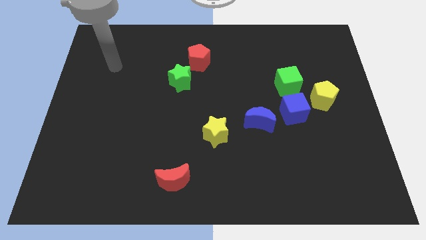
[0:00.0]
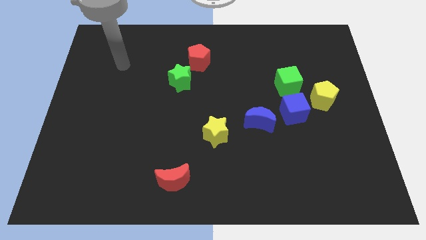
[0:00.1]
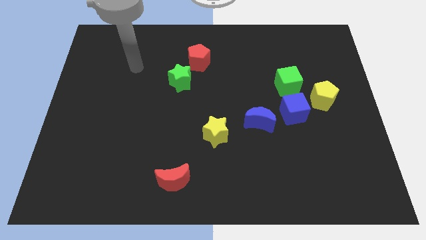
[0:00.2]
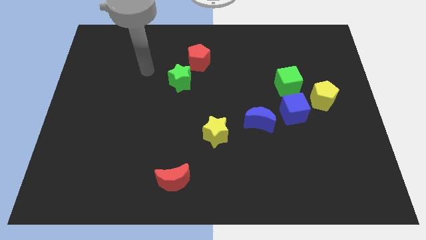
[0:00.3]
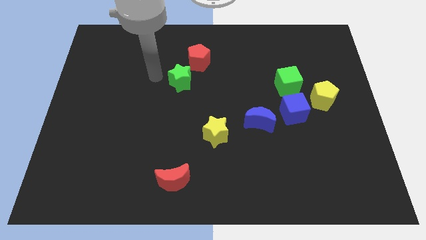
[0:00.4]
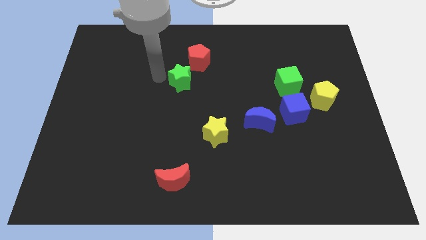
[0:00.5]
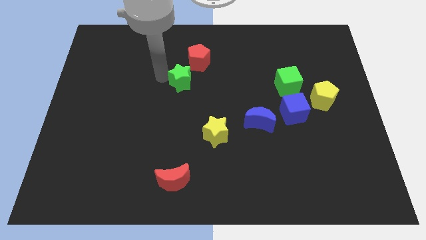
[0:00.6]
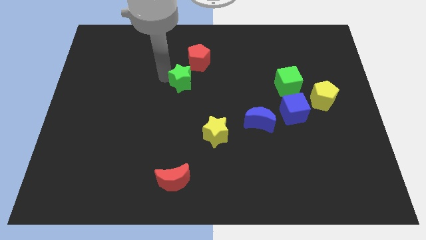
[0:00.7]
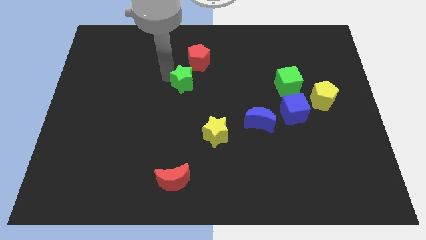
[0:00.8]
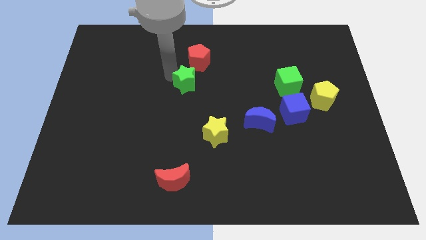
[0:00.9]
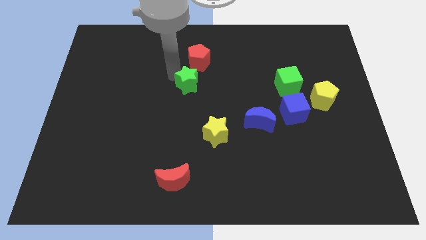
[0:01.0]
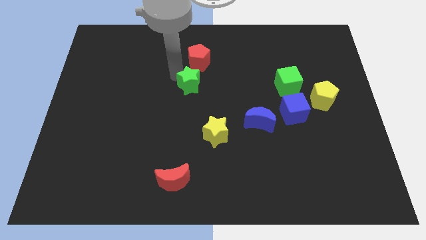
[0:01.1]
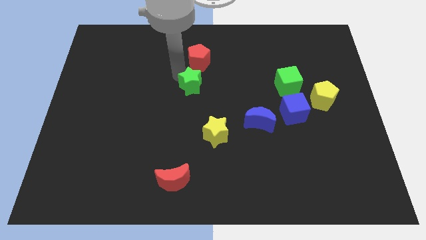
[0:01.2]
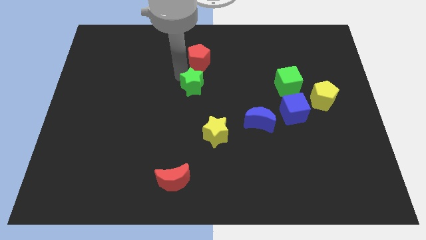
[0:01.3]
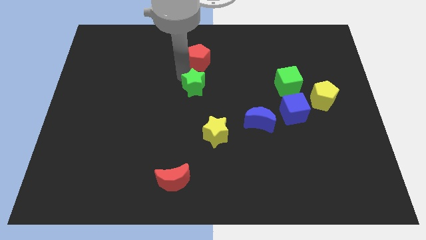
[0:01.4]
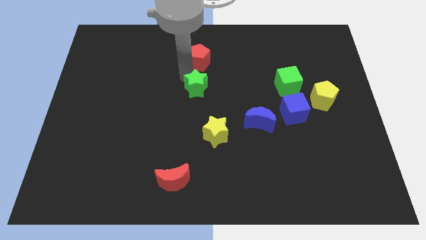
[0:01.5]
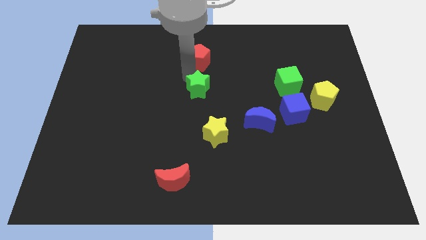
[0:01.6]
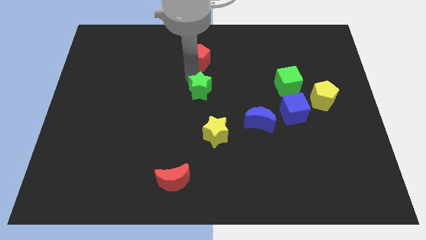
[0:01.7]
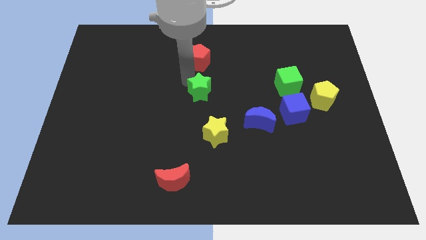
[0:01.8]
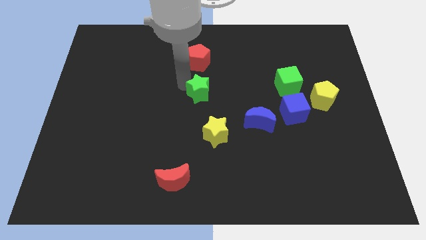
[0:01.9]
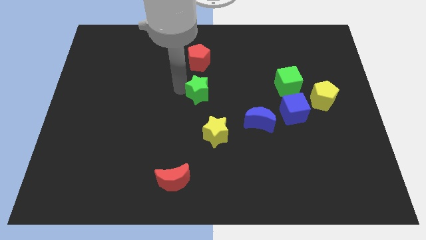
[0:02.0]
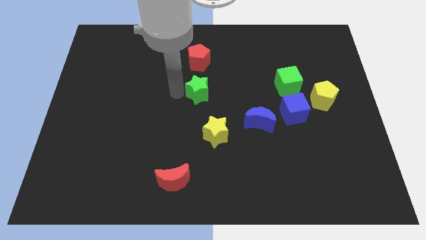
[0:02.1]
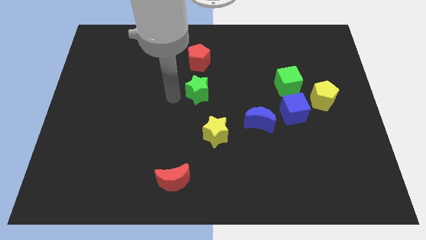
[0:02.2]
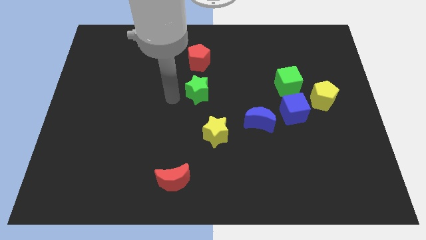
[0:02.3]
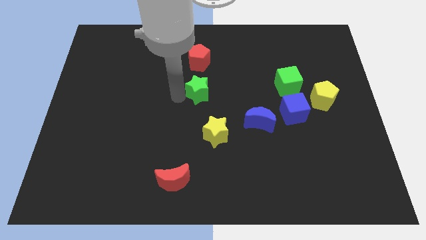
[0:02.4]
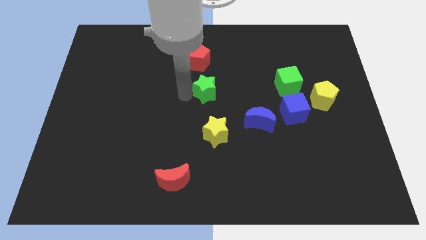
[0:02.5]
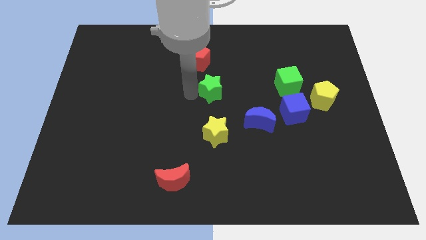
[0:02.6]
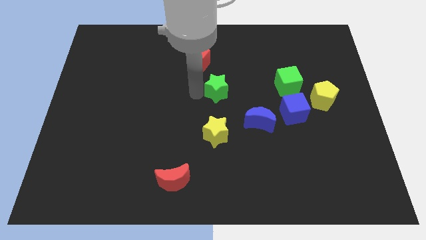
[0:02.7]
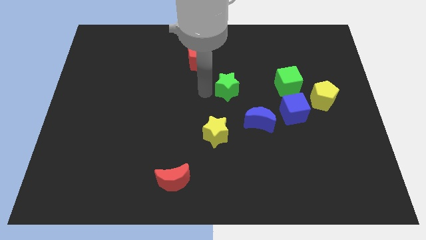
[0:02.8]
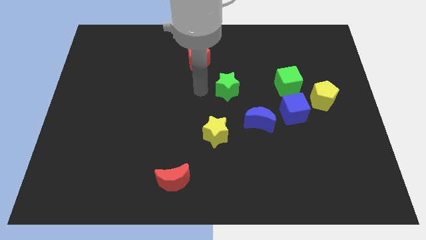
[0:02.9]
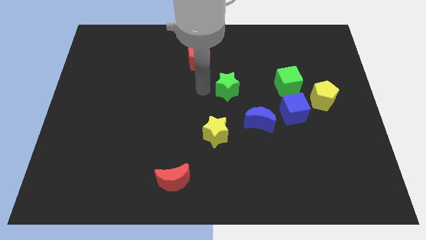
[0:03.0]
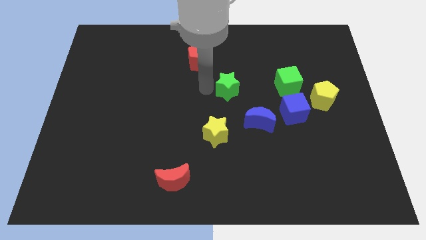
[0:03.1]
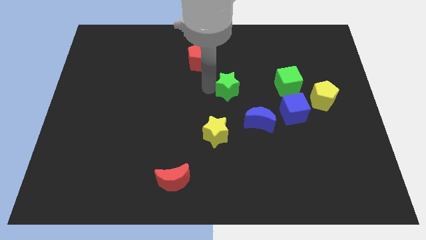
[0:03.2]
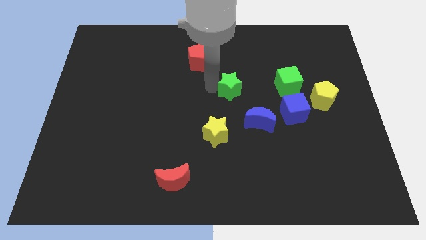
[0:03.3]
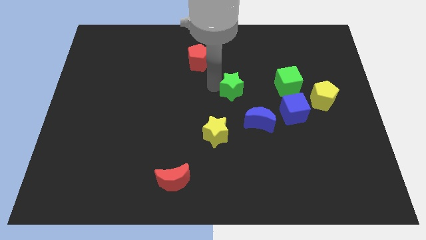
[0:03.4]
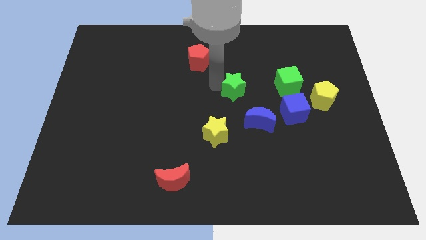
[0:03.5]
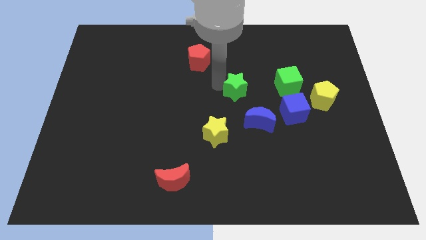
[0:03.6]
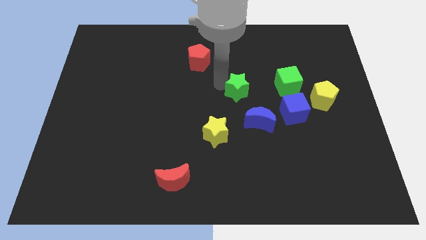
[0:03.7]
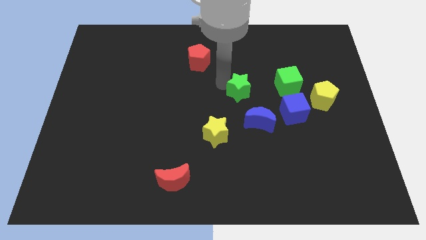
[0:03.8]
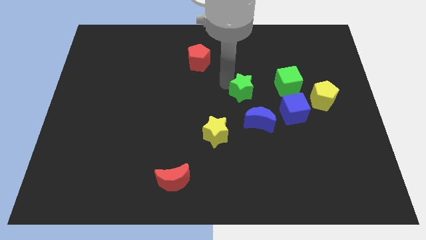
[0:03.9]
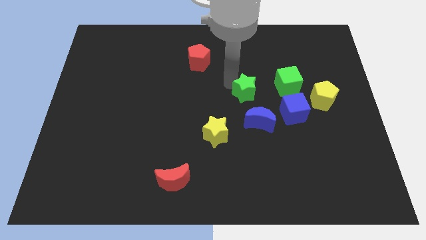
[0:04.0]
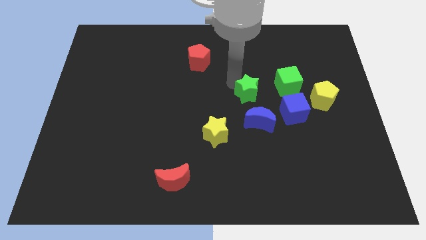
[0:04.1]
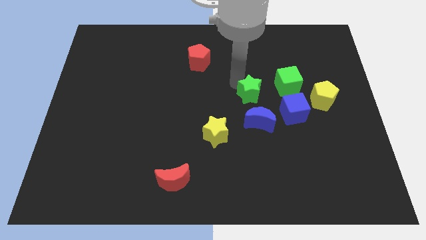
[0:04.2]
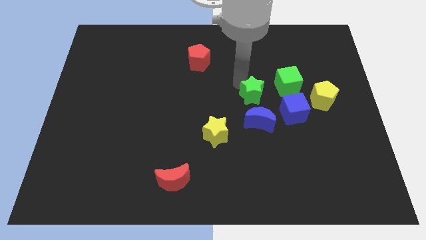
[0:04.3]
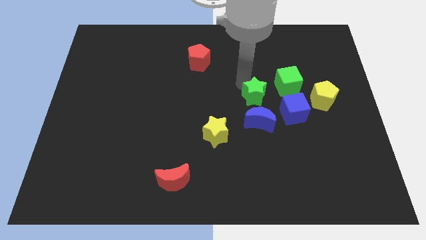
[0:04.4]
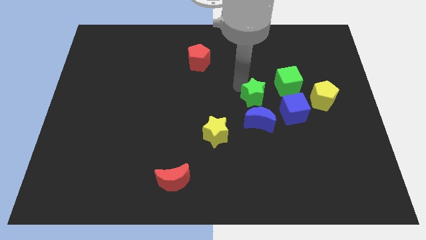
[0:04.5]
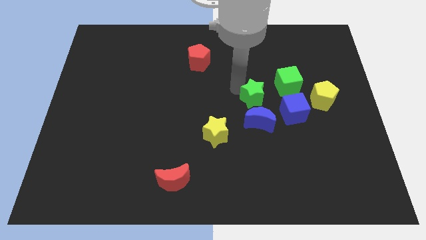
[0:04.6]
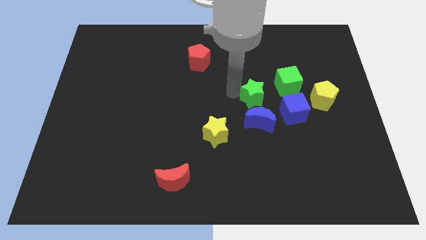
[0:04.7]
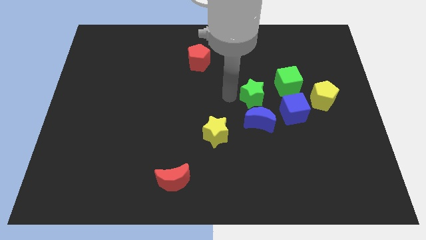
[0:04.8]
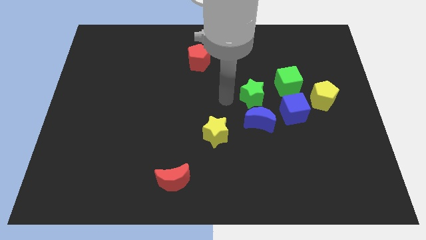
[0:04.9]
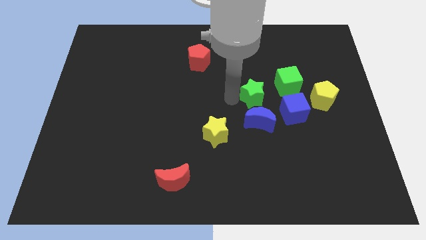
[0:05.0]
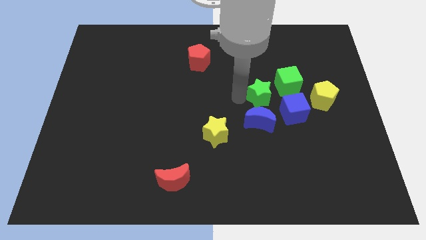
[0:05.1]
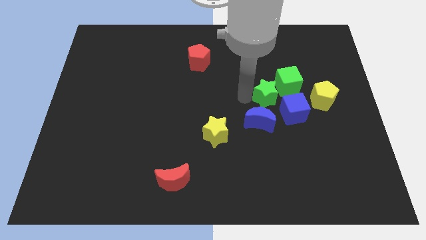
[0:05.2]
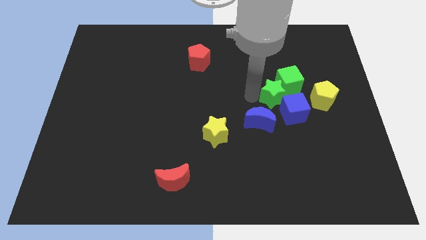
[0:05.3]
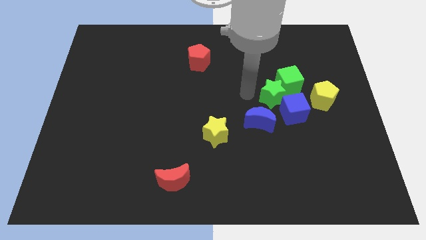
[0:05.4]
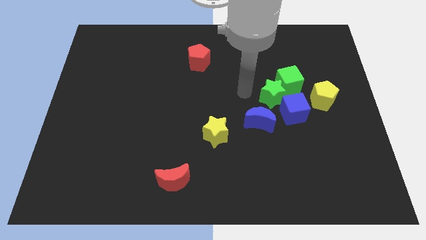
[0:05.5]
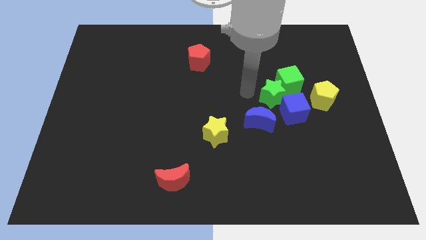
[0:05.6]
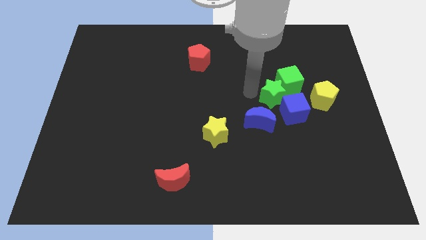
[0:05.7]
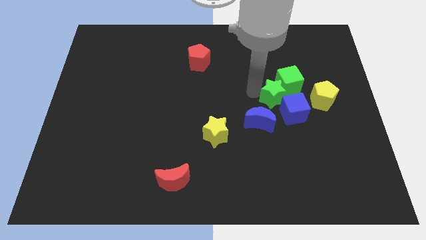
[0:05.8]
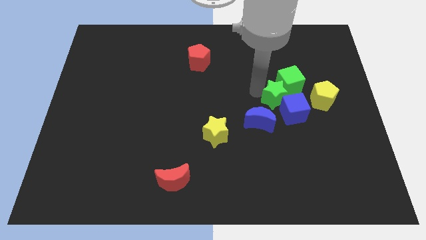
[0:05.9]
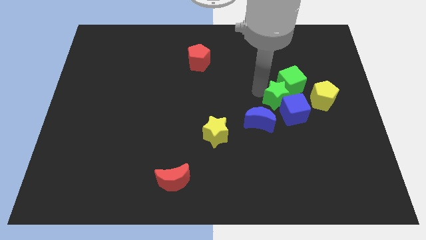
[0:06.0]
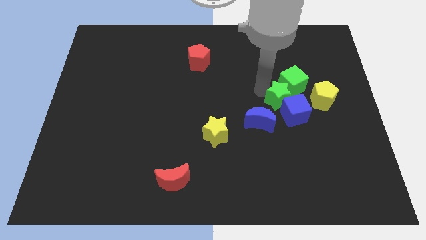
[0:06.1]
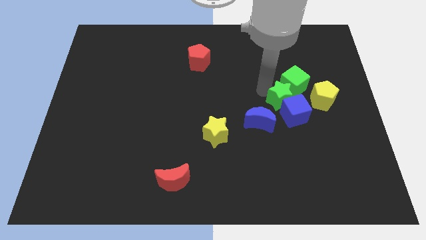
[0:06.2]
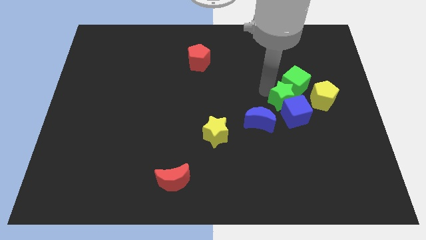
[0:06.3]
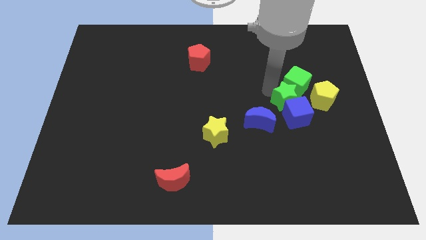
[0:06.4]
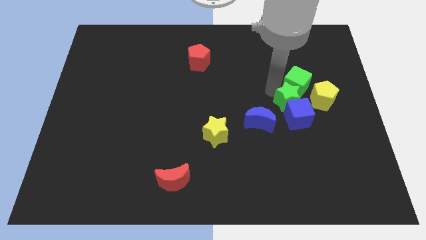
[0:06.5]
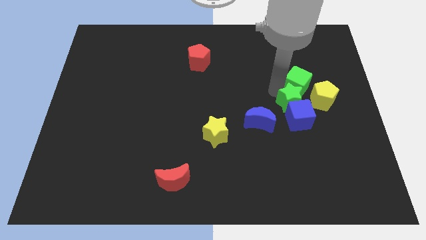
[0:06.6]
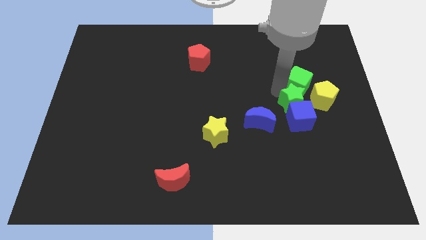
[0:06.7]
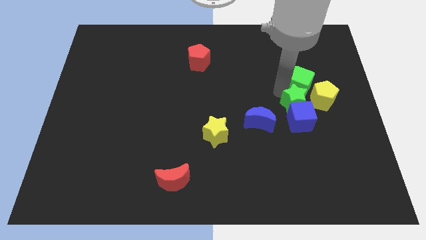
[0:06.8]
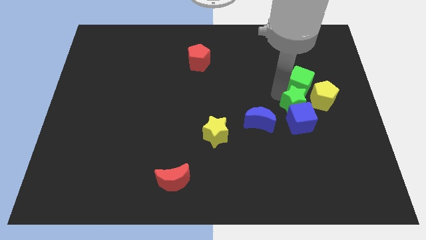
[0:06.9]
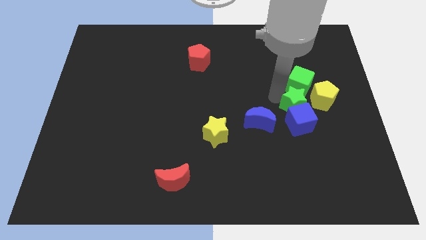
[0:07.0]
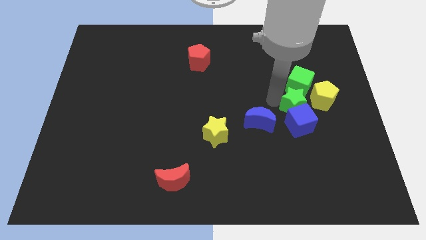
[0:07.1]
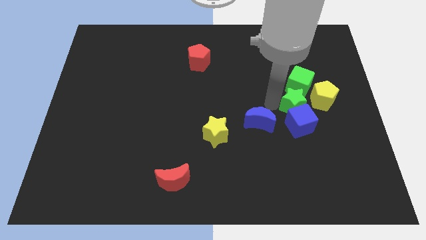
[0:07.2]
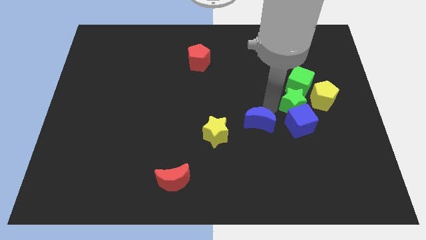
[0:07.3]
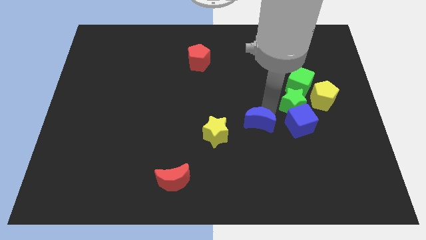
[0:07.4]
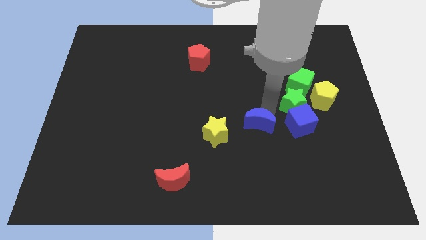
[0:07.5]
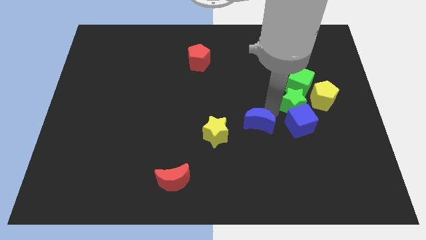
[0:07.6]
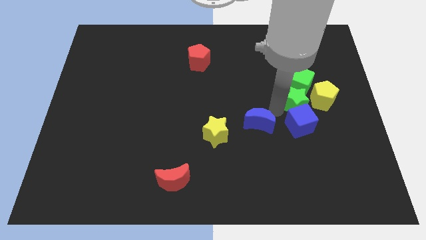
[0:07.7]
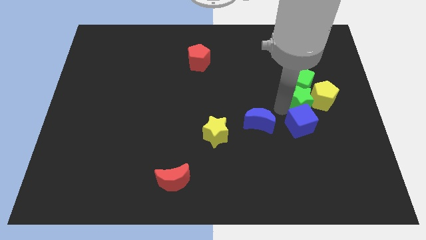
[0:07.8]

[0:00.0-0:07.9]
move the green star to the yellow pentagon
